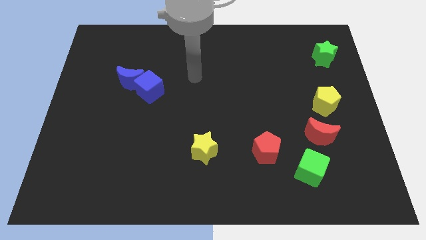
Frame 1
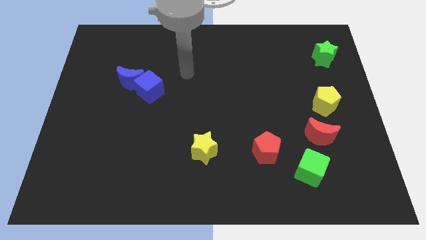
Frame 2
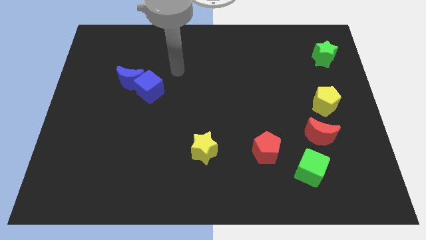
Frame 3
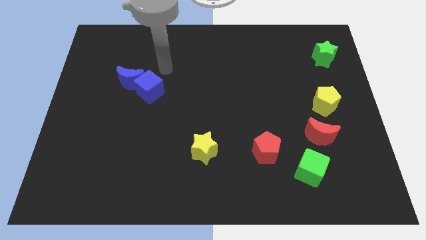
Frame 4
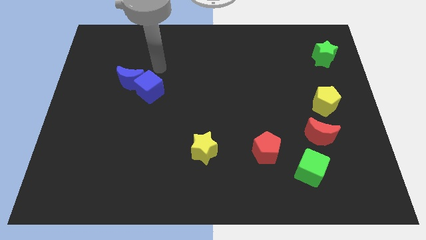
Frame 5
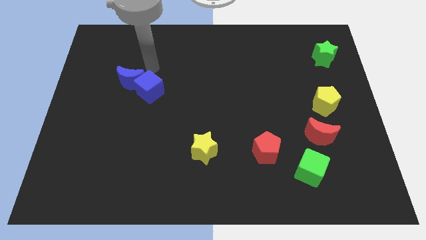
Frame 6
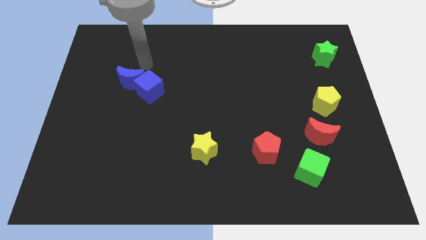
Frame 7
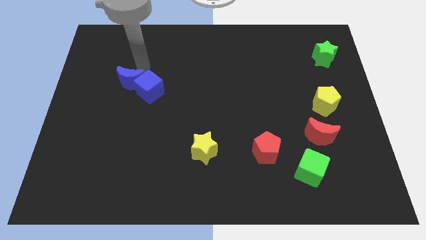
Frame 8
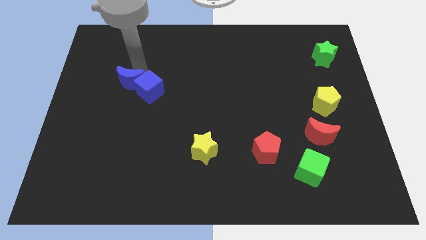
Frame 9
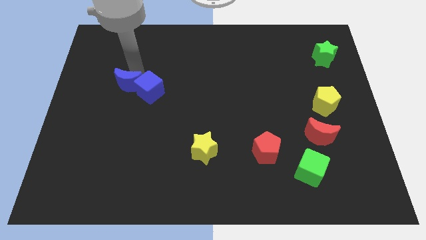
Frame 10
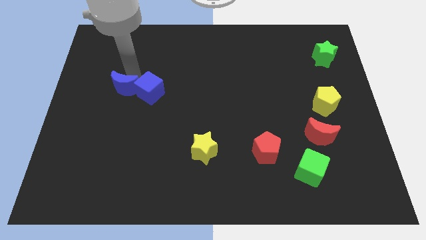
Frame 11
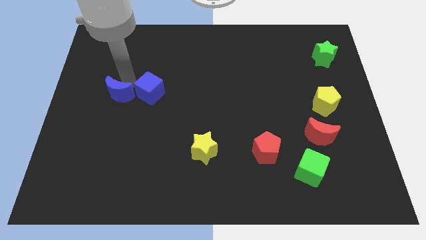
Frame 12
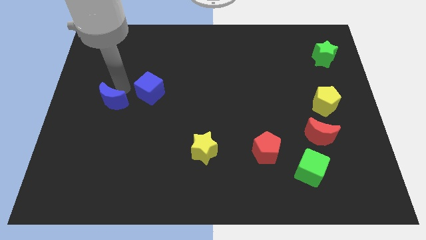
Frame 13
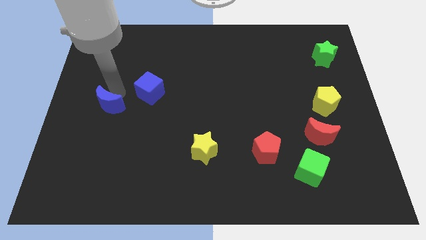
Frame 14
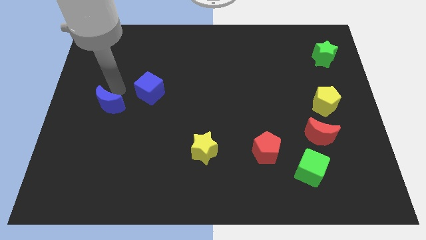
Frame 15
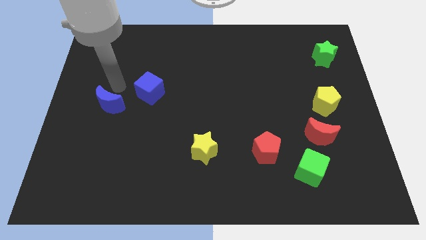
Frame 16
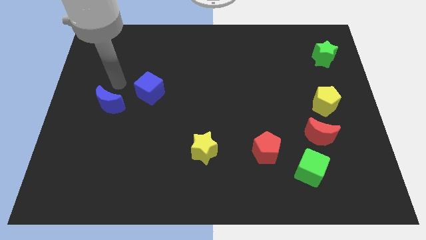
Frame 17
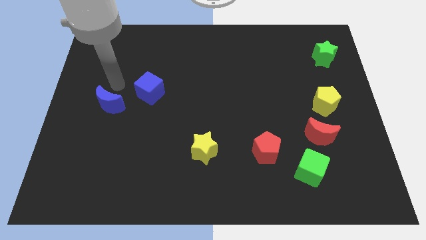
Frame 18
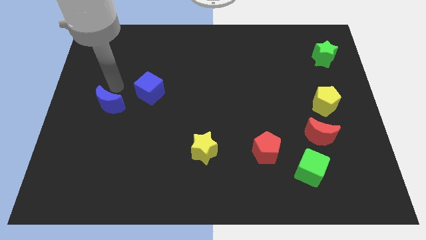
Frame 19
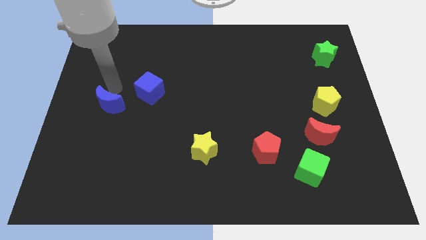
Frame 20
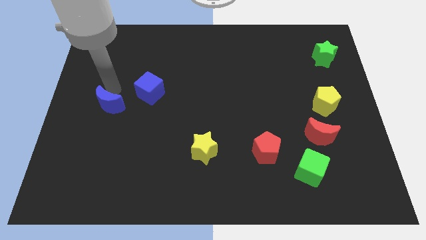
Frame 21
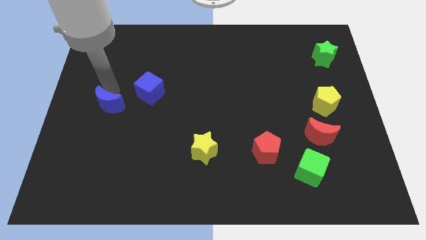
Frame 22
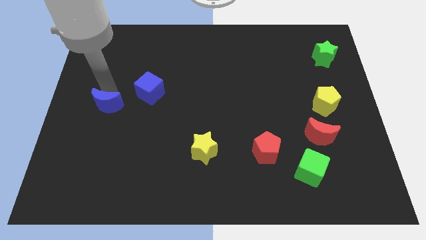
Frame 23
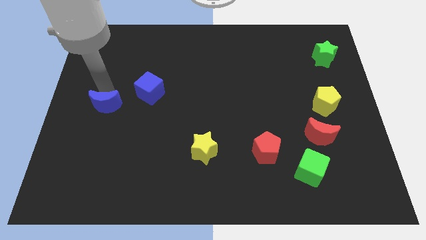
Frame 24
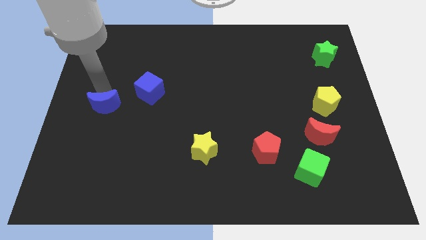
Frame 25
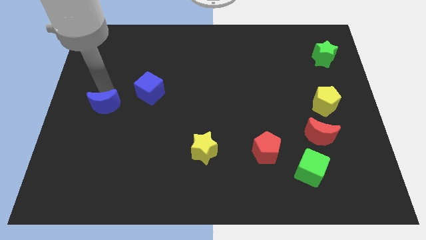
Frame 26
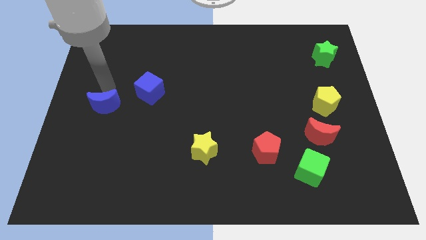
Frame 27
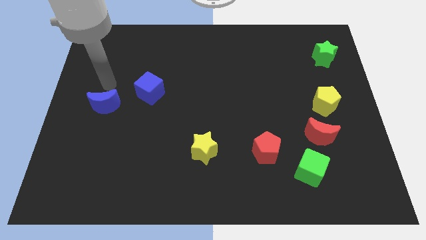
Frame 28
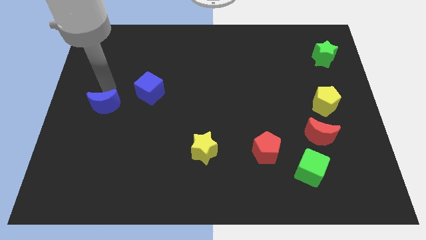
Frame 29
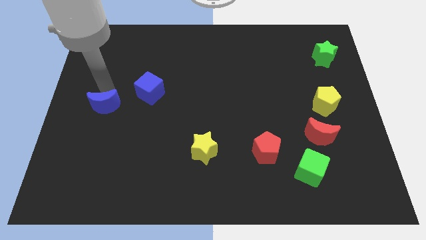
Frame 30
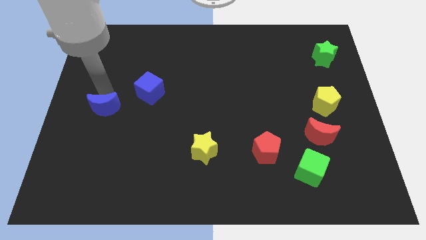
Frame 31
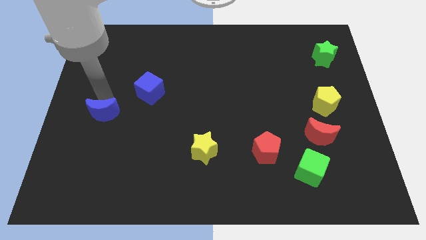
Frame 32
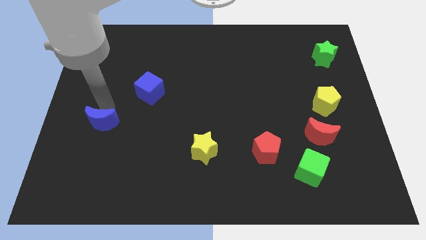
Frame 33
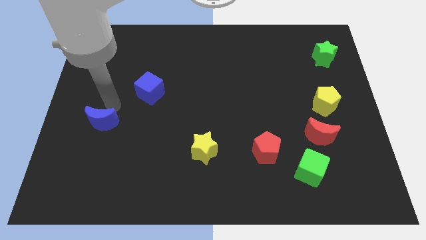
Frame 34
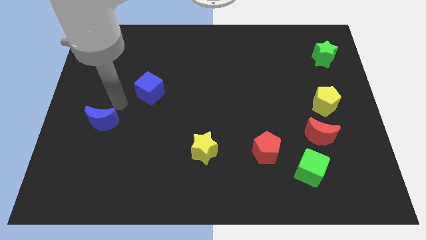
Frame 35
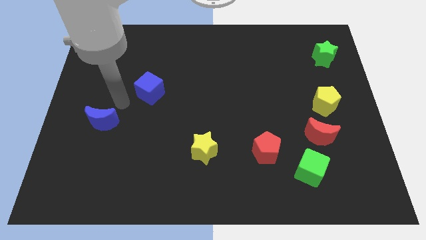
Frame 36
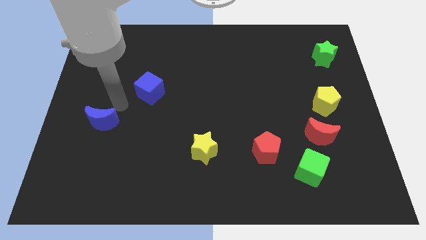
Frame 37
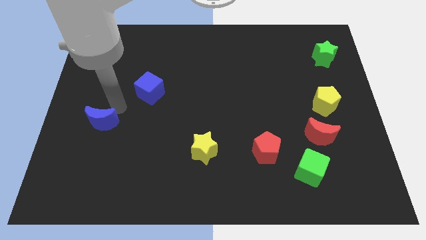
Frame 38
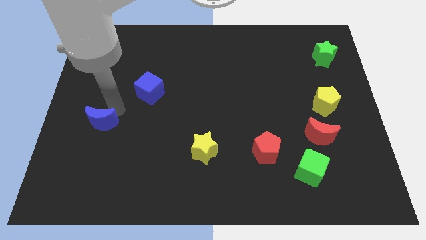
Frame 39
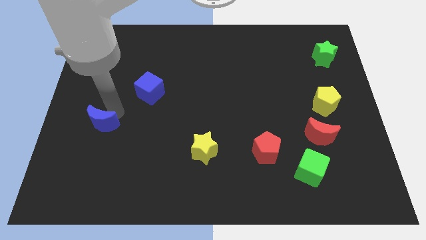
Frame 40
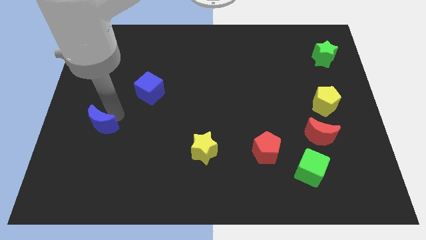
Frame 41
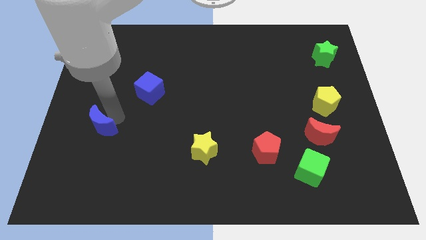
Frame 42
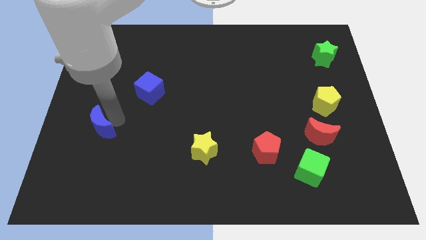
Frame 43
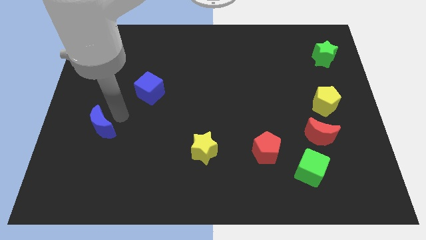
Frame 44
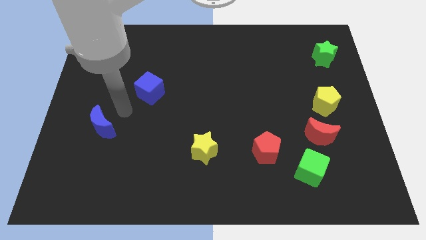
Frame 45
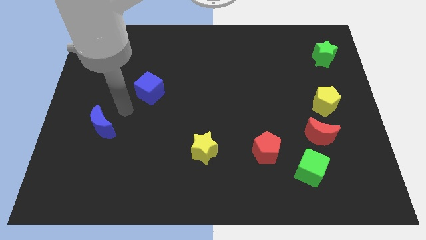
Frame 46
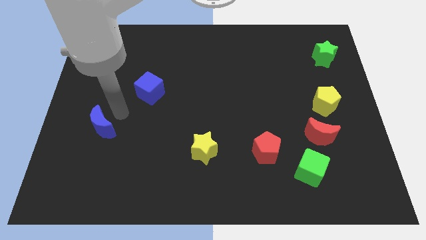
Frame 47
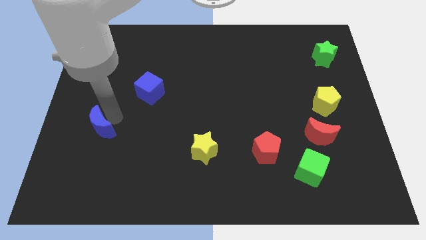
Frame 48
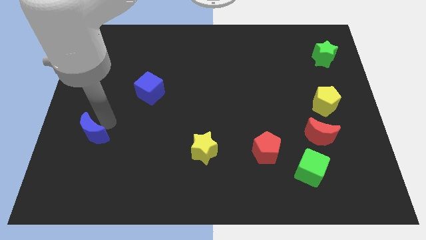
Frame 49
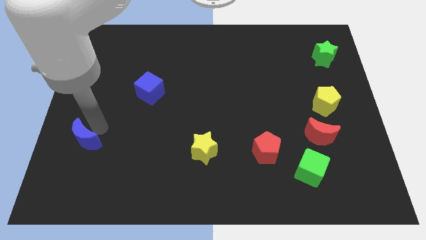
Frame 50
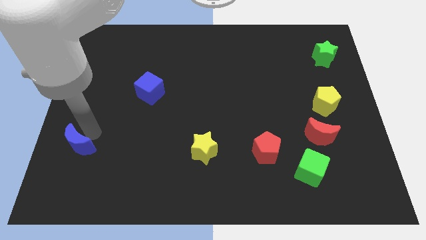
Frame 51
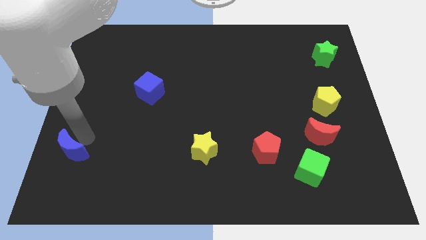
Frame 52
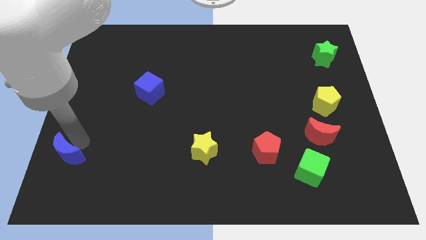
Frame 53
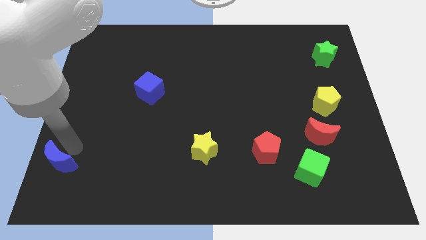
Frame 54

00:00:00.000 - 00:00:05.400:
slide the blue moon to the lower left corner

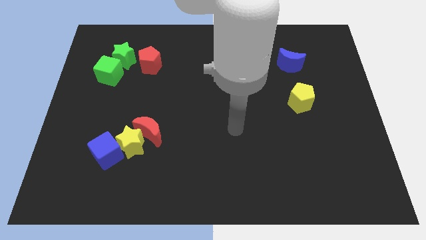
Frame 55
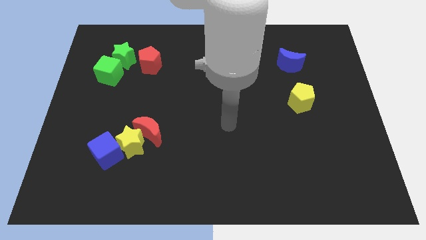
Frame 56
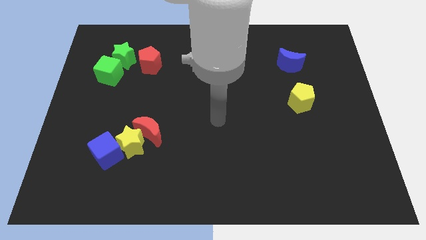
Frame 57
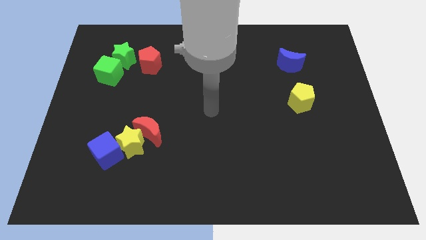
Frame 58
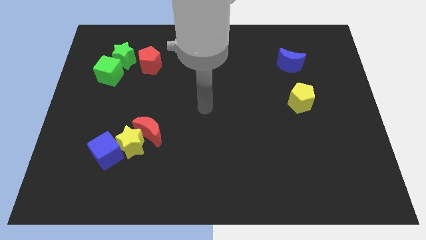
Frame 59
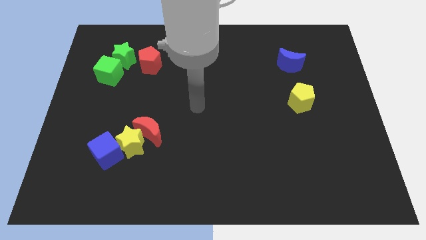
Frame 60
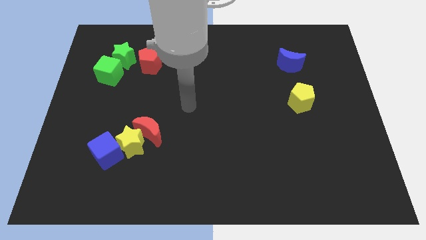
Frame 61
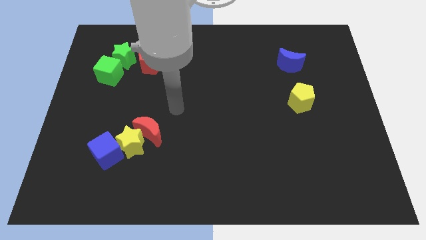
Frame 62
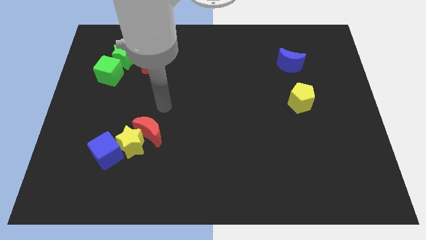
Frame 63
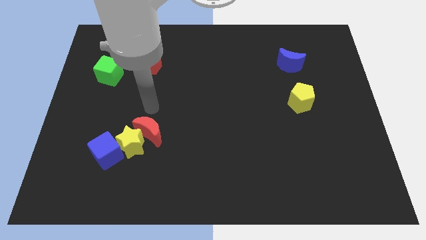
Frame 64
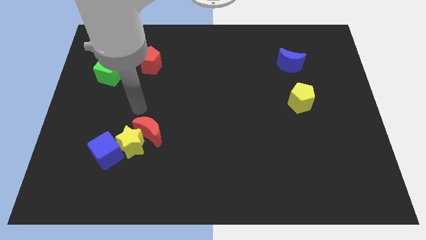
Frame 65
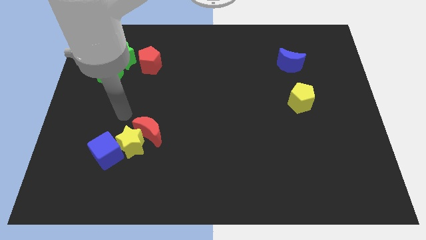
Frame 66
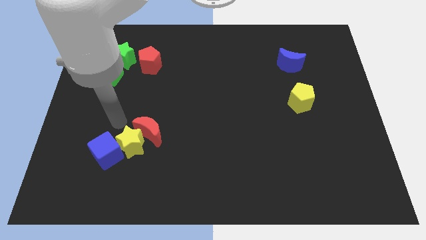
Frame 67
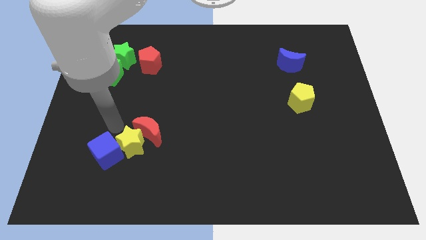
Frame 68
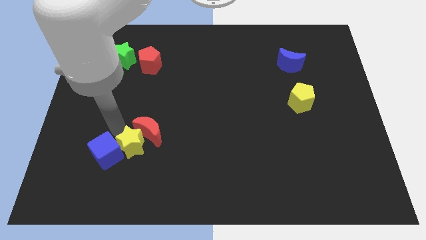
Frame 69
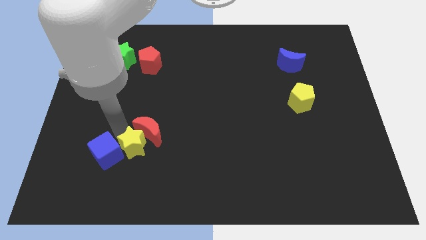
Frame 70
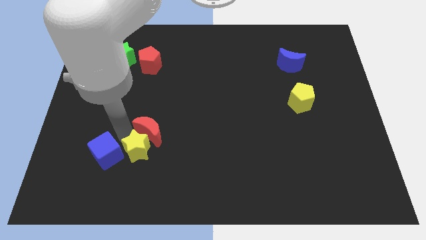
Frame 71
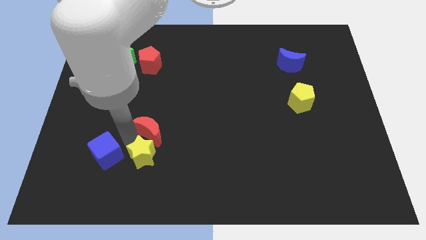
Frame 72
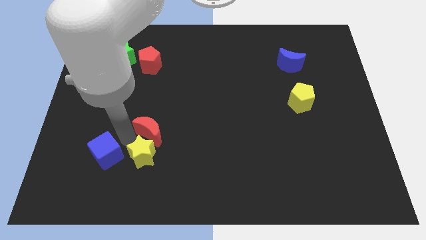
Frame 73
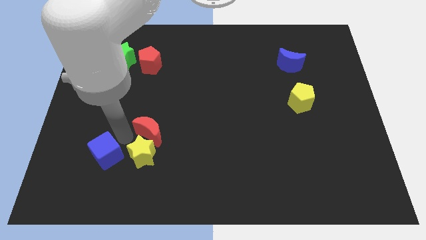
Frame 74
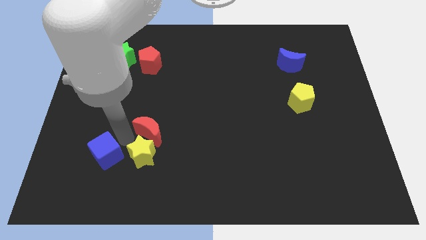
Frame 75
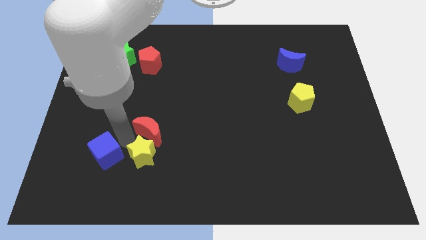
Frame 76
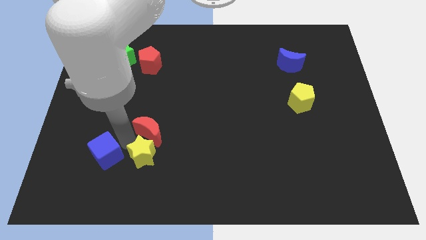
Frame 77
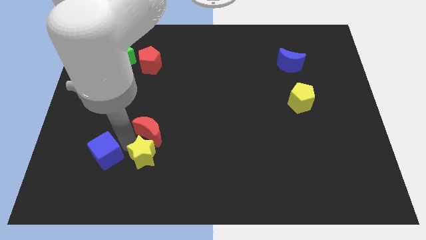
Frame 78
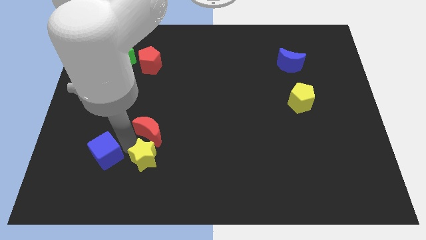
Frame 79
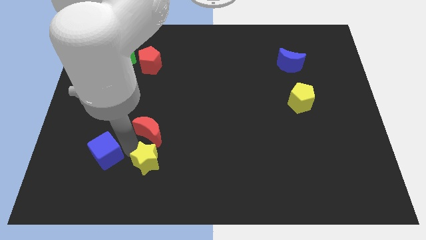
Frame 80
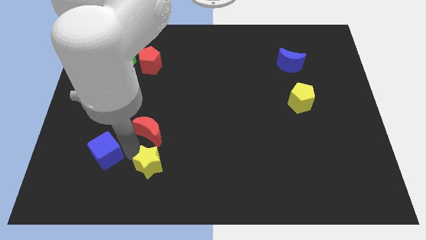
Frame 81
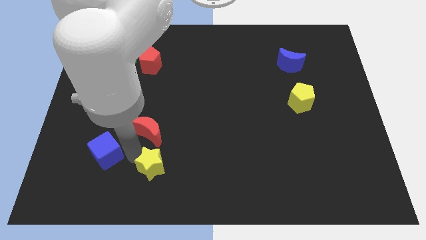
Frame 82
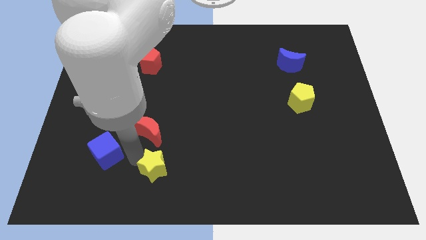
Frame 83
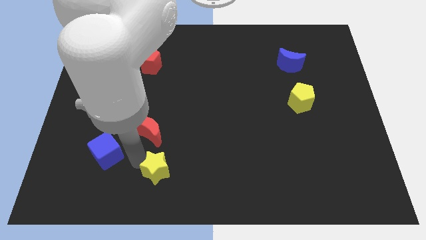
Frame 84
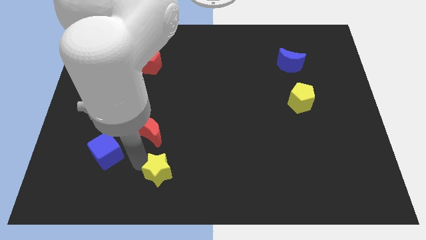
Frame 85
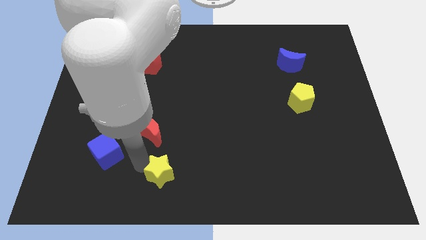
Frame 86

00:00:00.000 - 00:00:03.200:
move the yellow star to the bottom
